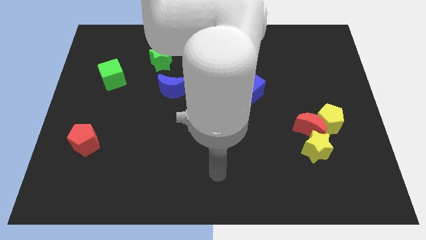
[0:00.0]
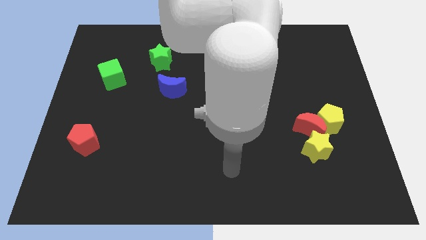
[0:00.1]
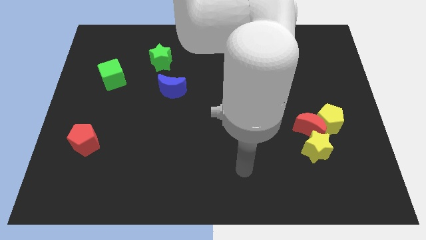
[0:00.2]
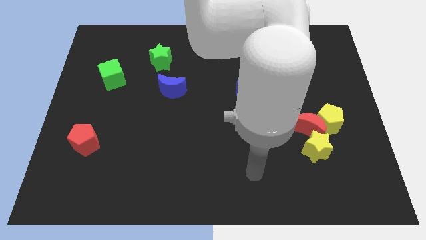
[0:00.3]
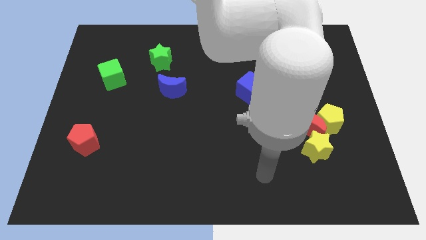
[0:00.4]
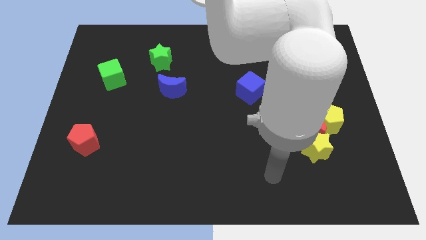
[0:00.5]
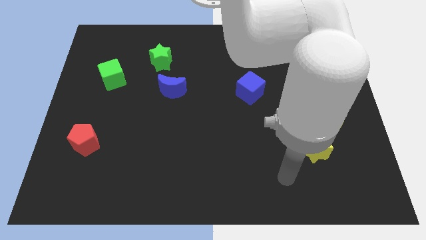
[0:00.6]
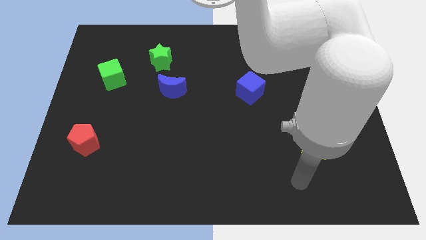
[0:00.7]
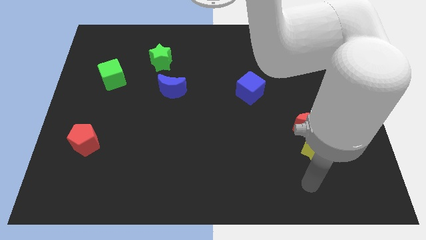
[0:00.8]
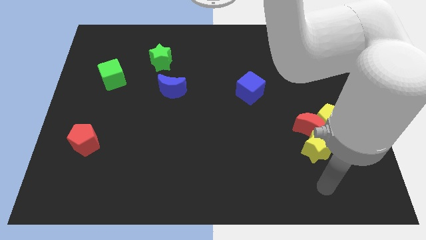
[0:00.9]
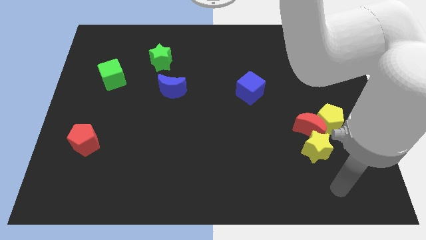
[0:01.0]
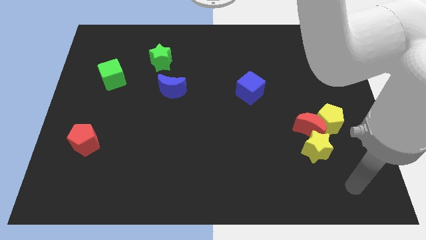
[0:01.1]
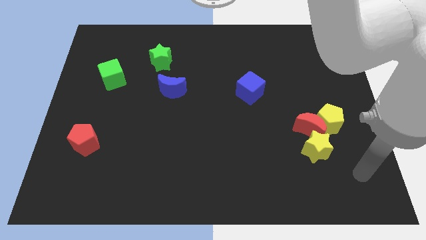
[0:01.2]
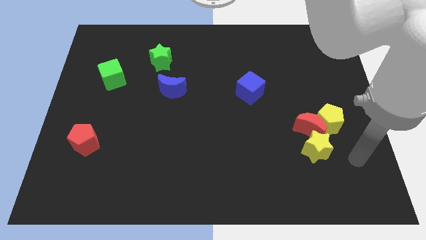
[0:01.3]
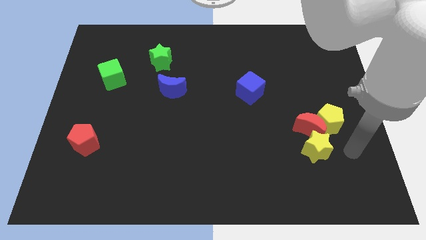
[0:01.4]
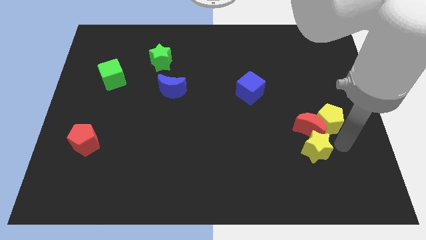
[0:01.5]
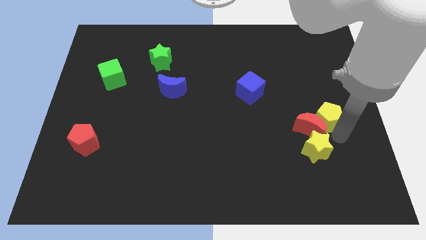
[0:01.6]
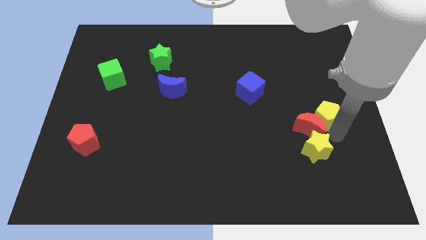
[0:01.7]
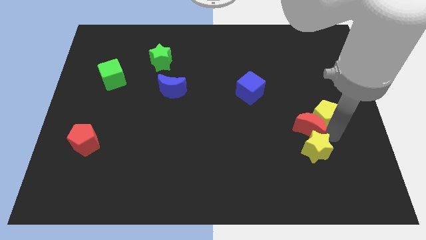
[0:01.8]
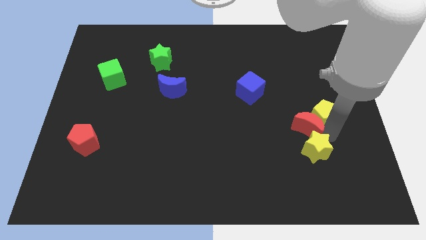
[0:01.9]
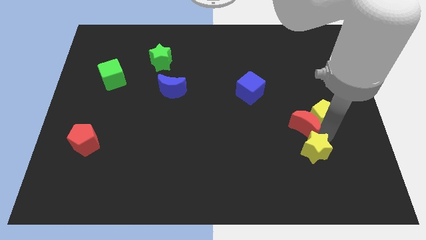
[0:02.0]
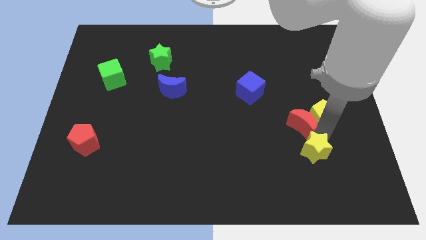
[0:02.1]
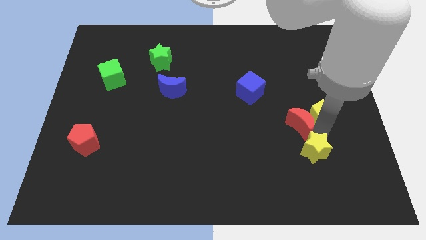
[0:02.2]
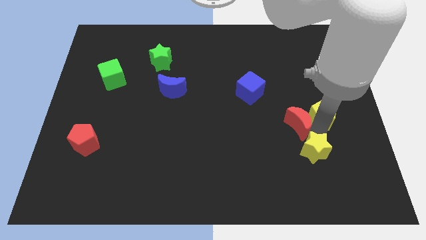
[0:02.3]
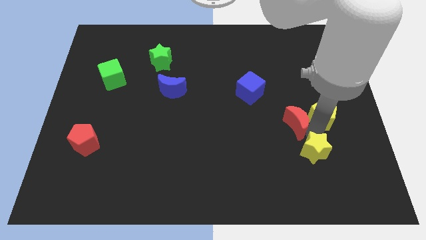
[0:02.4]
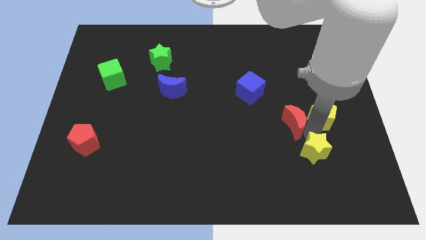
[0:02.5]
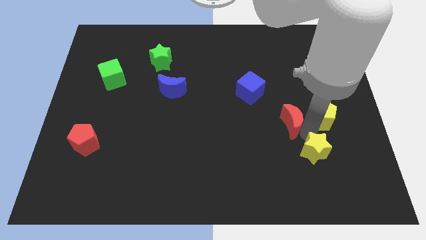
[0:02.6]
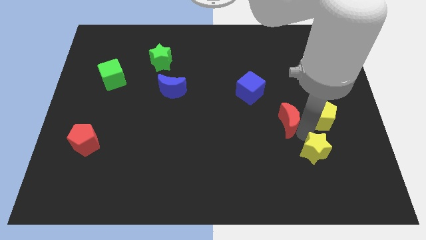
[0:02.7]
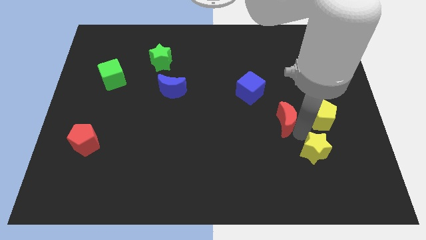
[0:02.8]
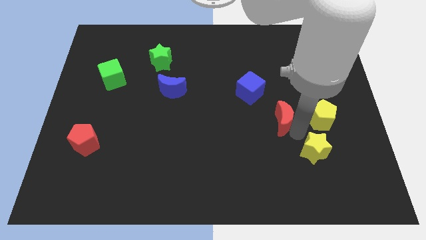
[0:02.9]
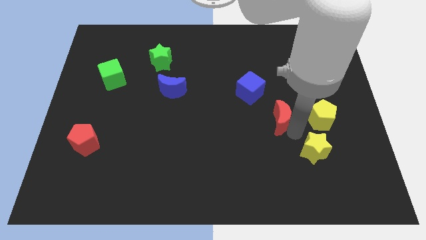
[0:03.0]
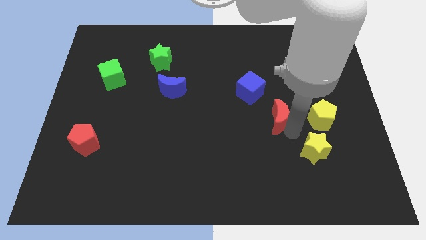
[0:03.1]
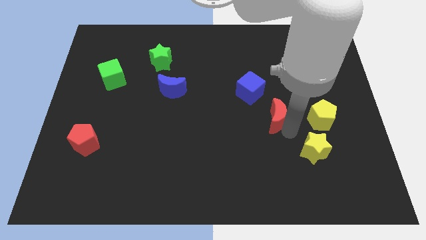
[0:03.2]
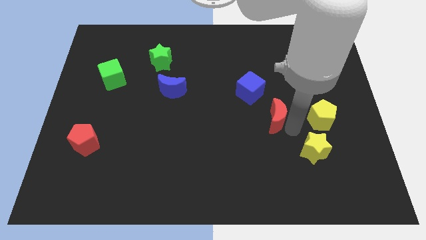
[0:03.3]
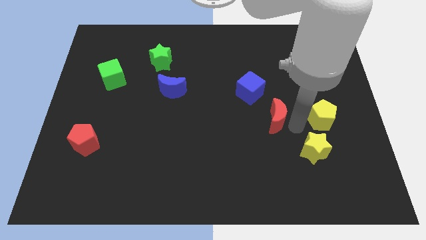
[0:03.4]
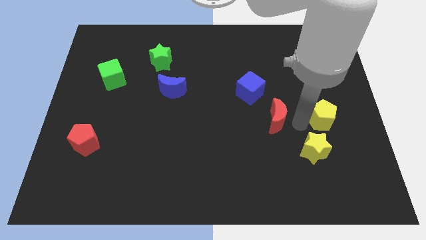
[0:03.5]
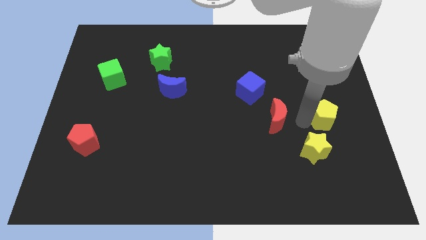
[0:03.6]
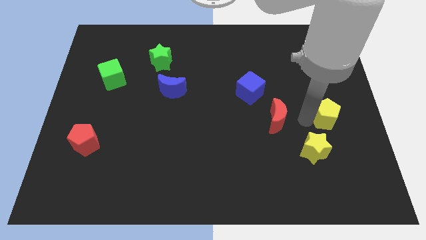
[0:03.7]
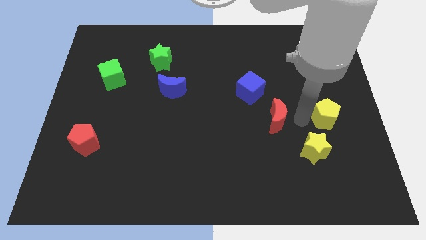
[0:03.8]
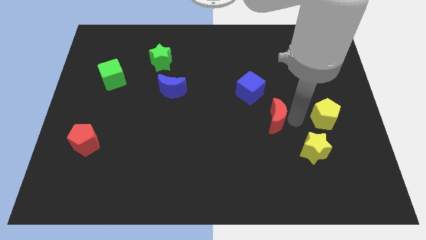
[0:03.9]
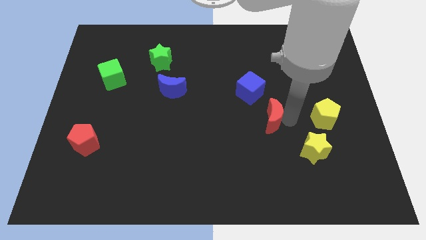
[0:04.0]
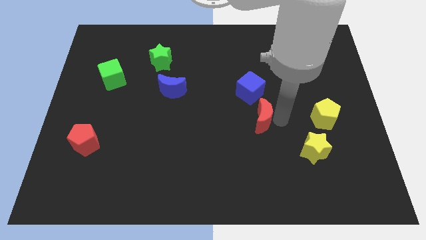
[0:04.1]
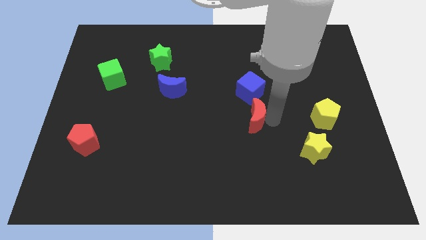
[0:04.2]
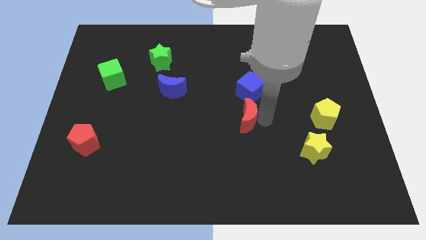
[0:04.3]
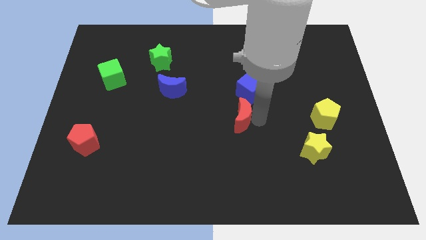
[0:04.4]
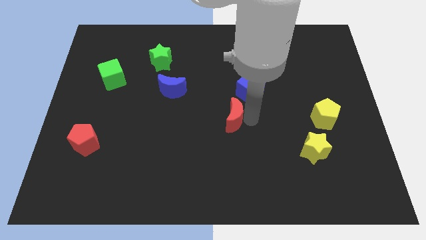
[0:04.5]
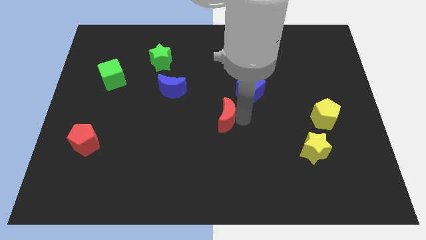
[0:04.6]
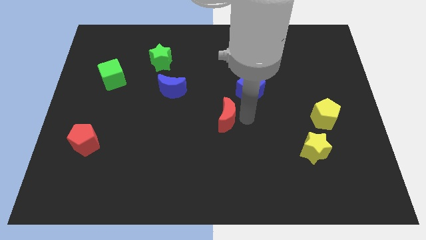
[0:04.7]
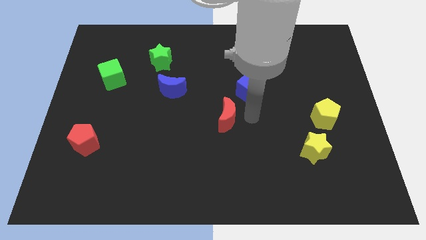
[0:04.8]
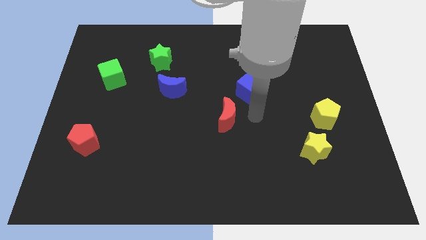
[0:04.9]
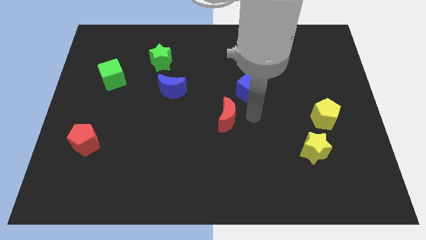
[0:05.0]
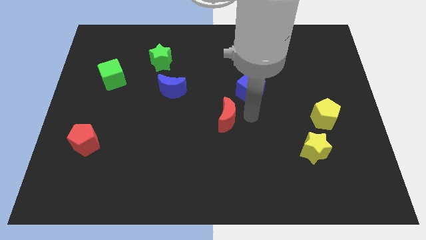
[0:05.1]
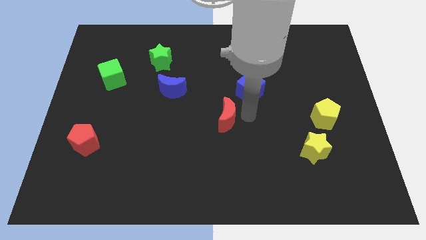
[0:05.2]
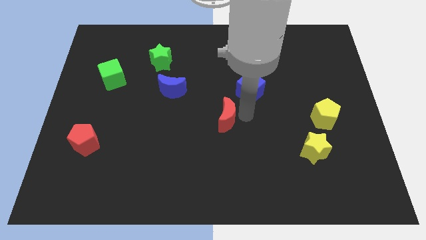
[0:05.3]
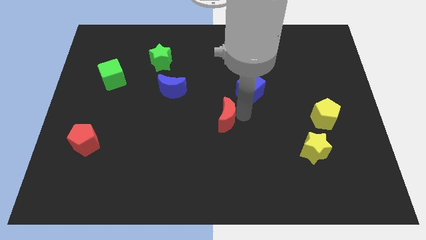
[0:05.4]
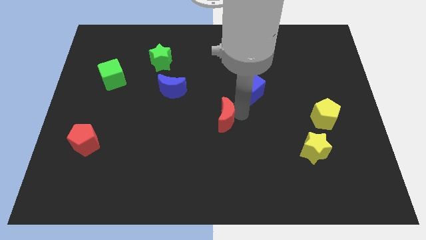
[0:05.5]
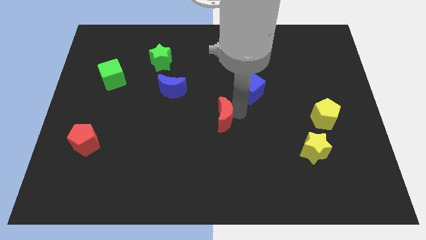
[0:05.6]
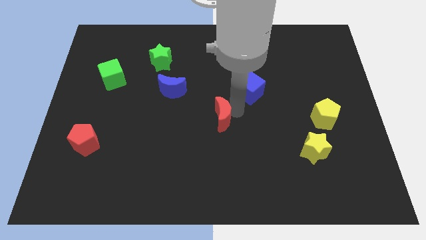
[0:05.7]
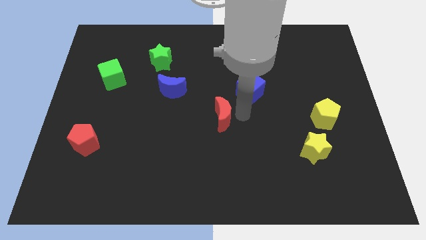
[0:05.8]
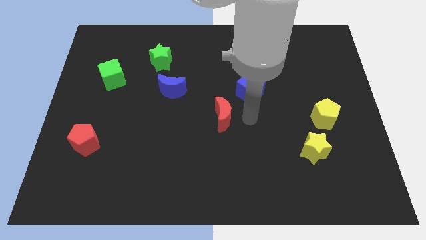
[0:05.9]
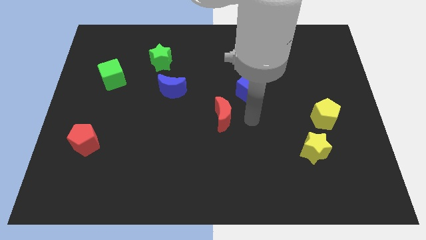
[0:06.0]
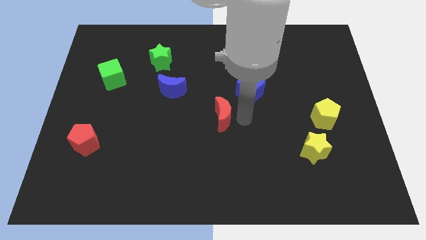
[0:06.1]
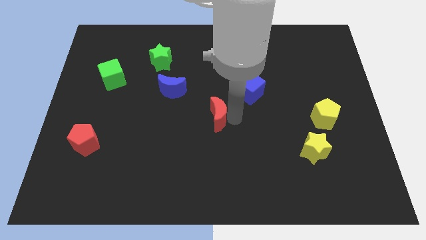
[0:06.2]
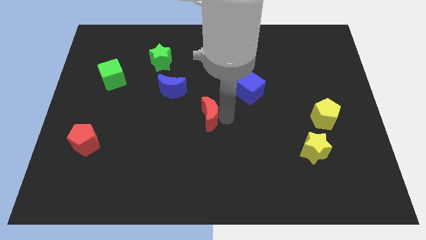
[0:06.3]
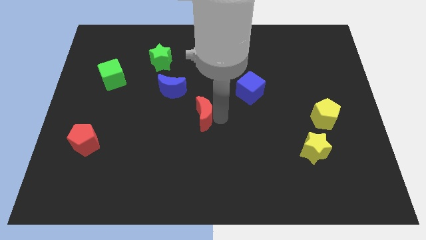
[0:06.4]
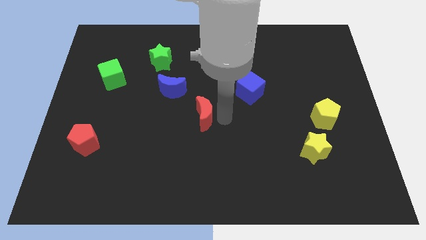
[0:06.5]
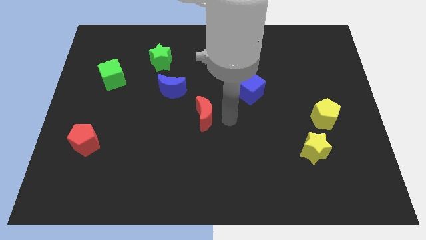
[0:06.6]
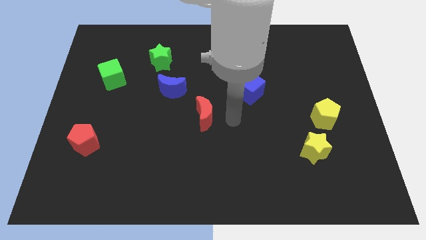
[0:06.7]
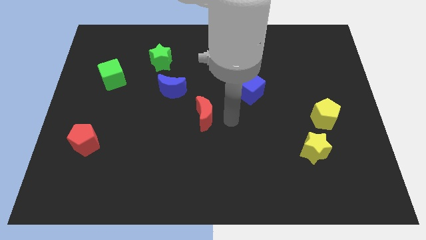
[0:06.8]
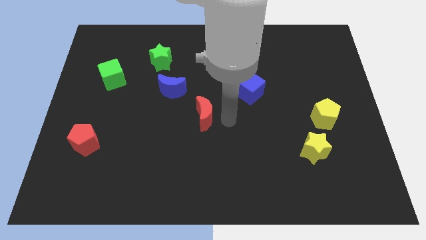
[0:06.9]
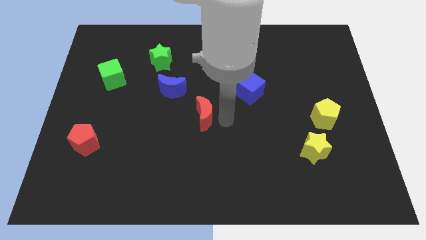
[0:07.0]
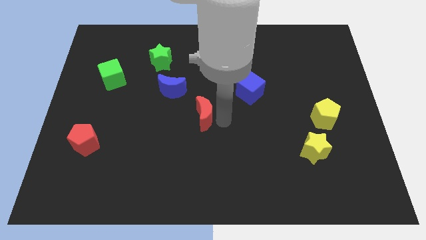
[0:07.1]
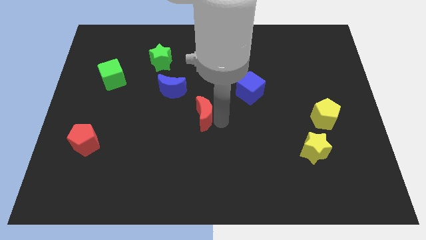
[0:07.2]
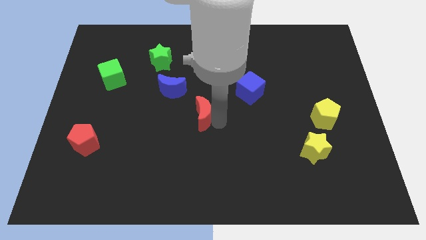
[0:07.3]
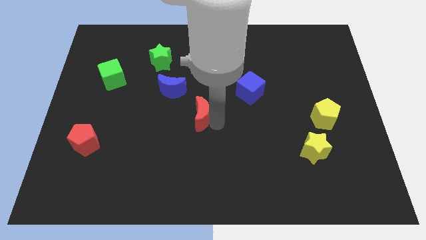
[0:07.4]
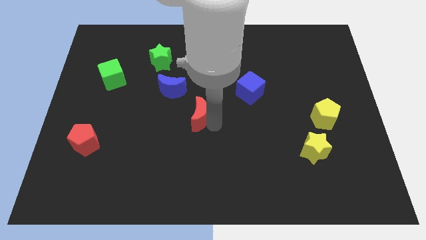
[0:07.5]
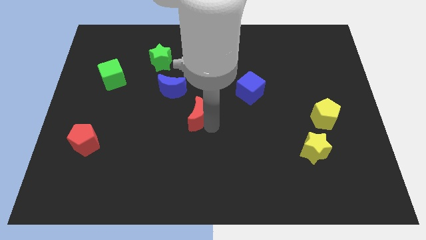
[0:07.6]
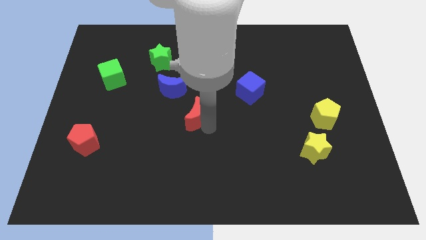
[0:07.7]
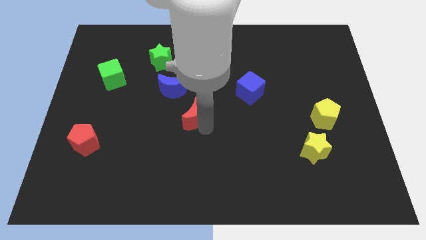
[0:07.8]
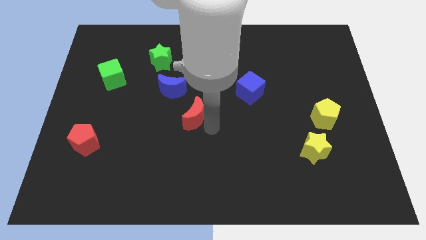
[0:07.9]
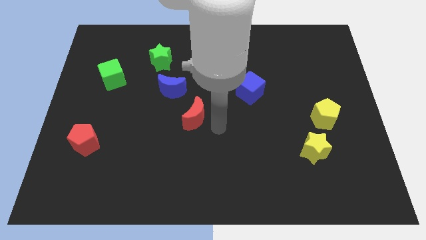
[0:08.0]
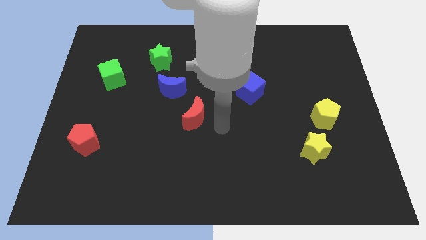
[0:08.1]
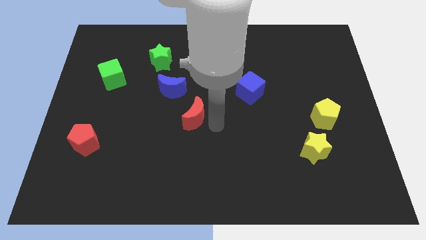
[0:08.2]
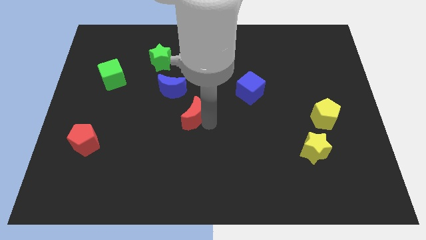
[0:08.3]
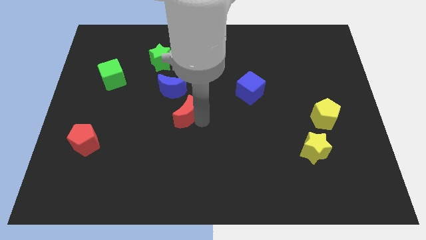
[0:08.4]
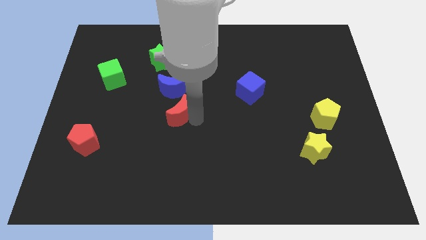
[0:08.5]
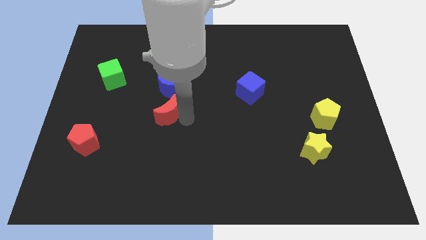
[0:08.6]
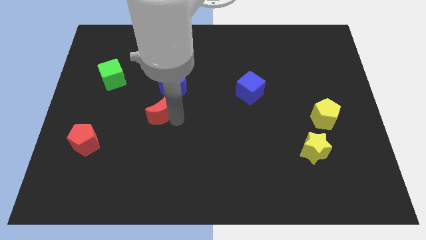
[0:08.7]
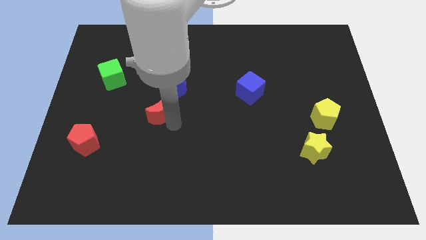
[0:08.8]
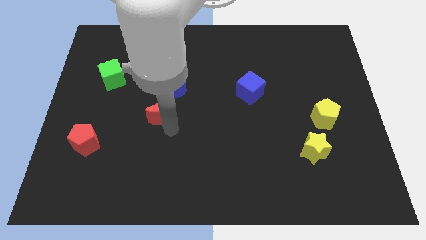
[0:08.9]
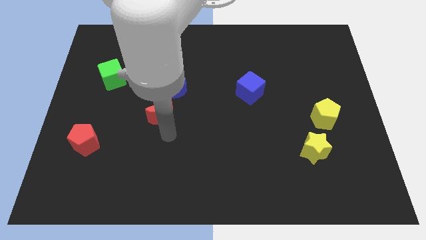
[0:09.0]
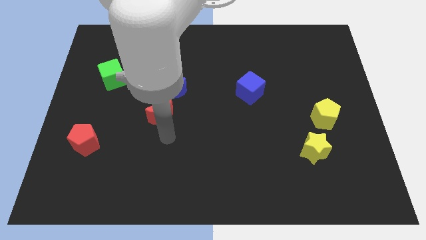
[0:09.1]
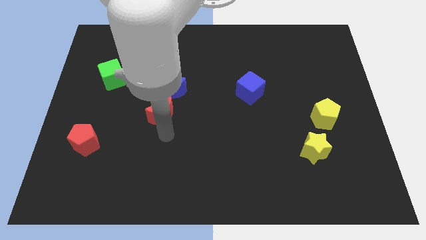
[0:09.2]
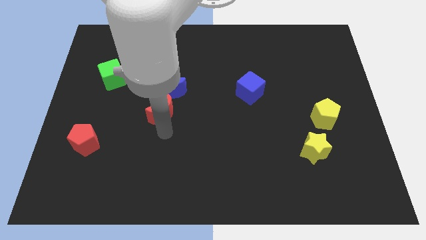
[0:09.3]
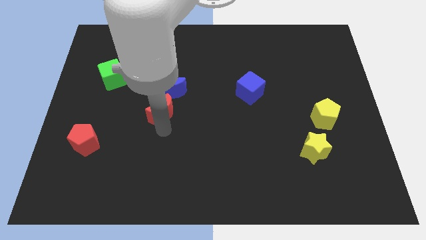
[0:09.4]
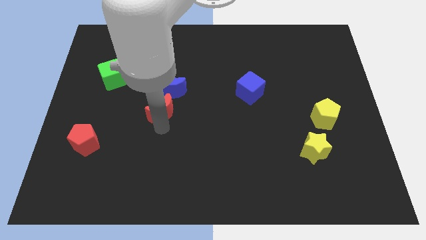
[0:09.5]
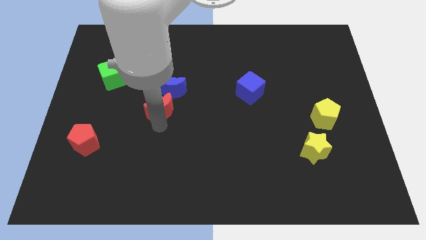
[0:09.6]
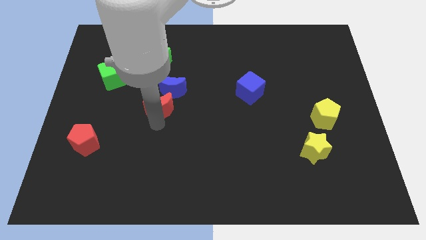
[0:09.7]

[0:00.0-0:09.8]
slide the red moon to the bottom of the green star
